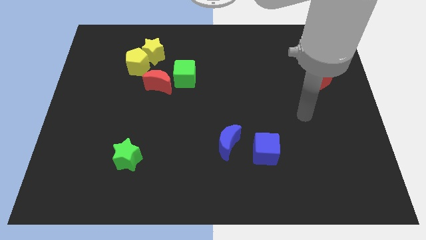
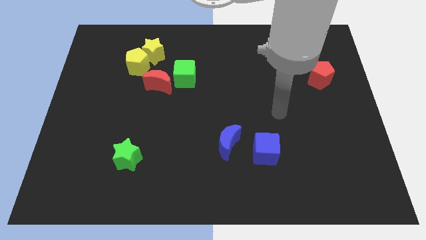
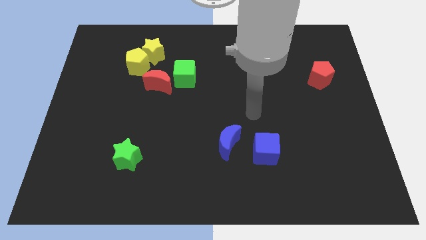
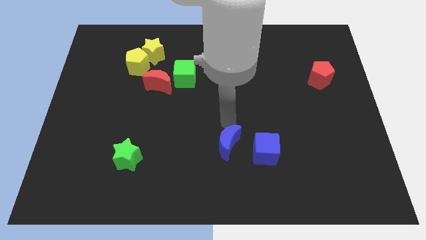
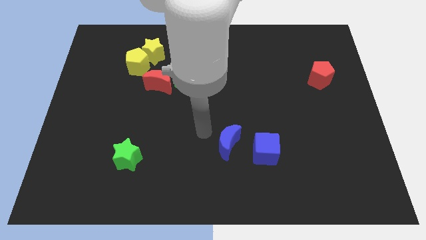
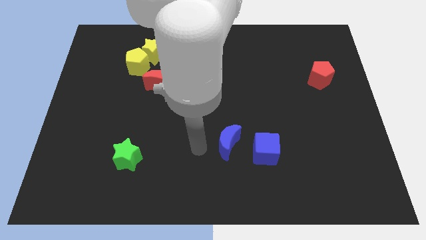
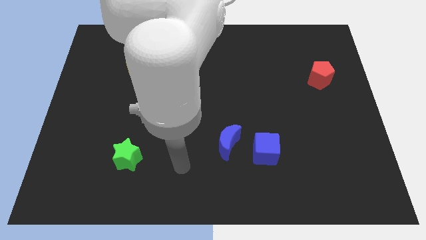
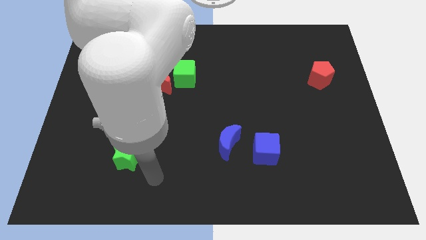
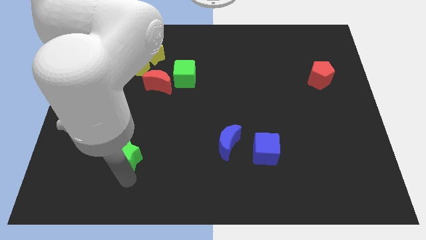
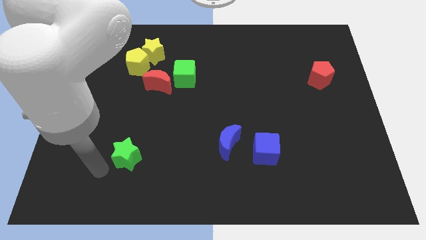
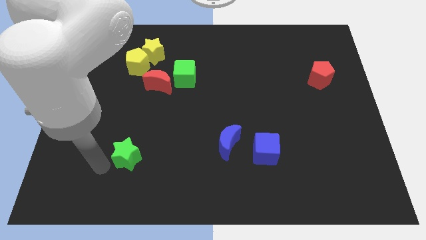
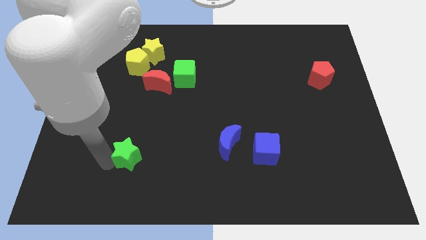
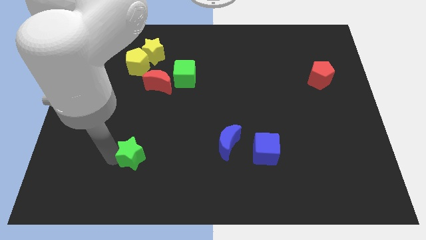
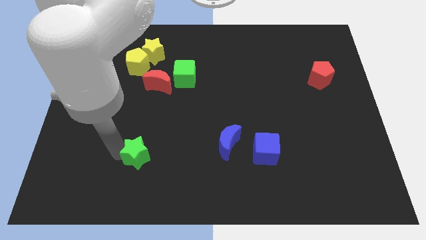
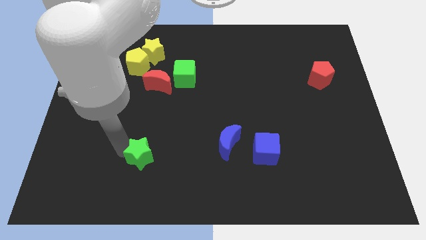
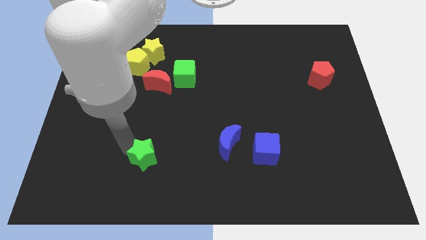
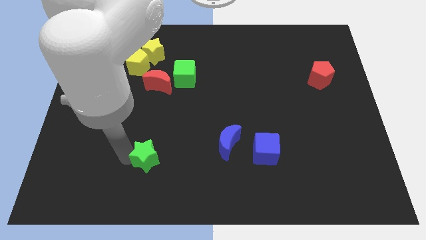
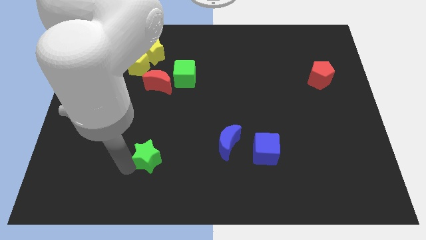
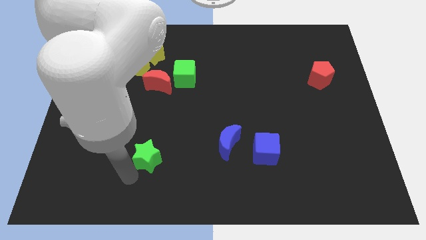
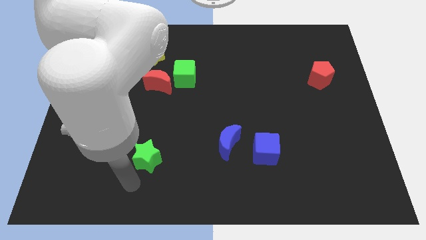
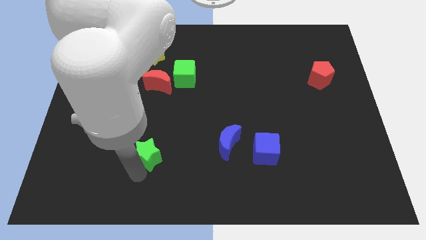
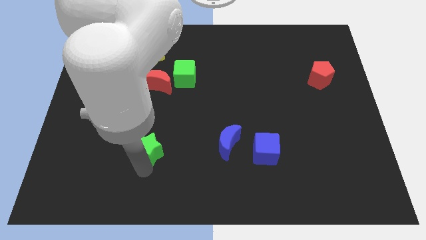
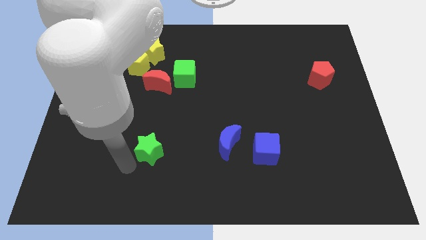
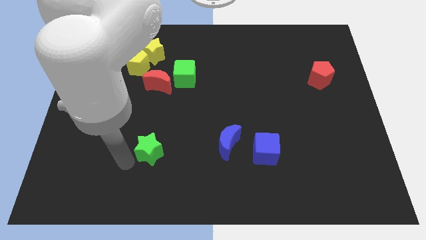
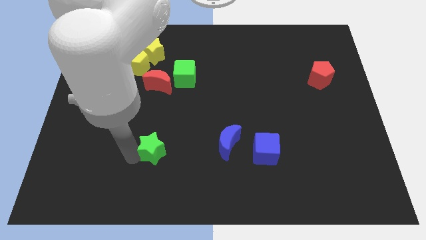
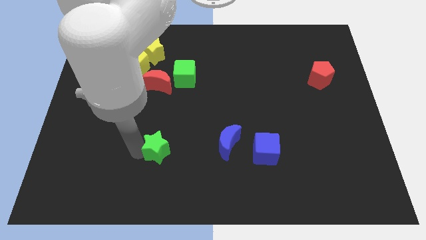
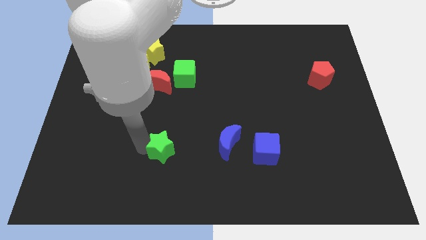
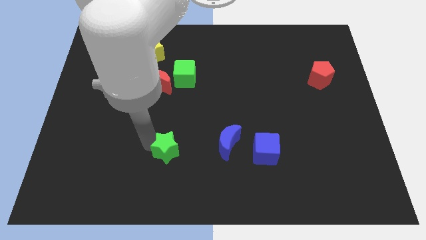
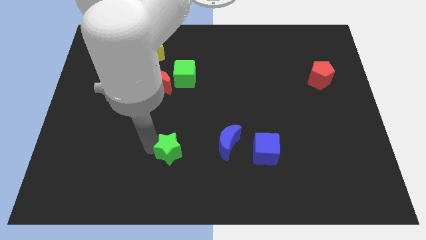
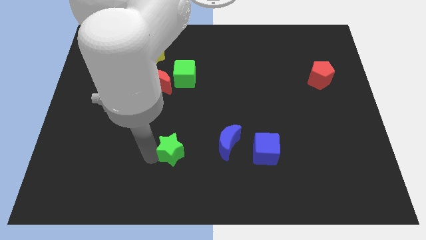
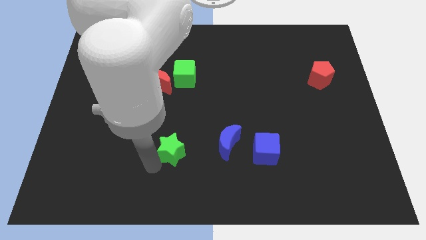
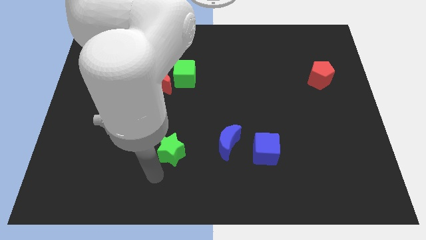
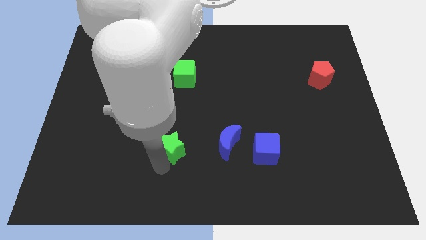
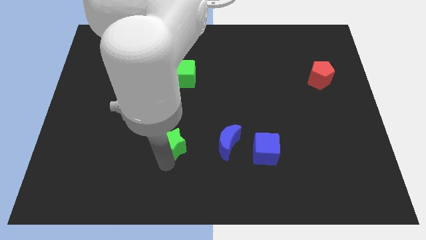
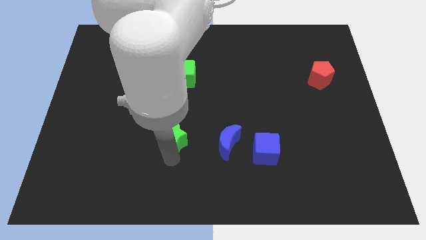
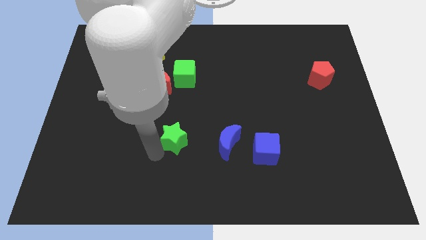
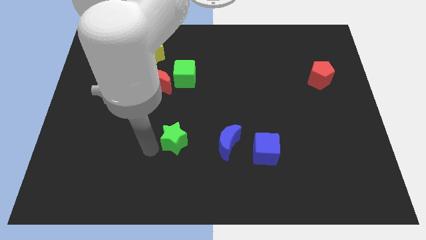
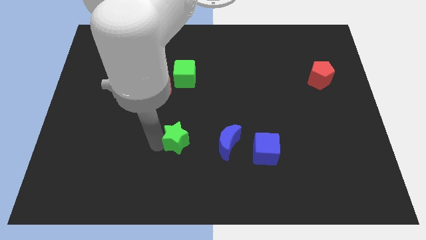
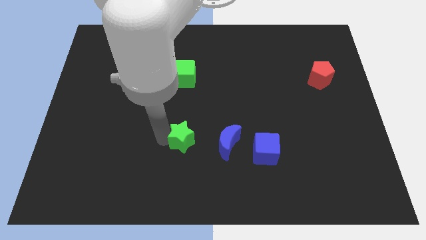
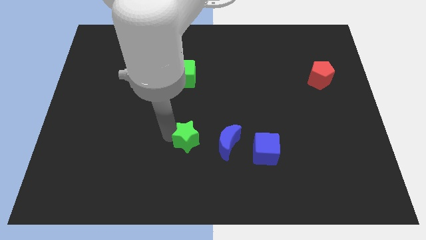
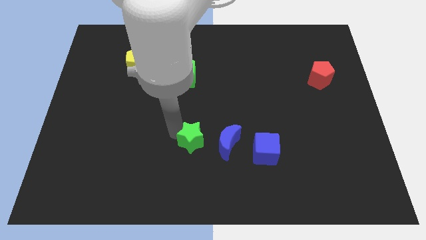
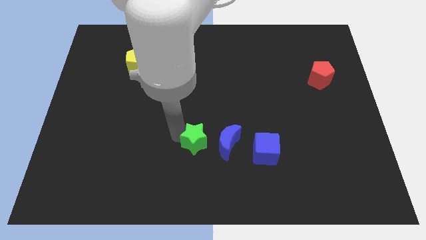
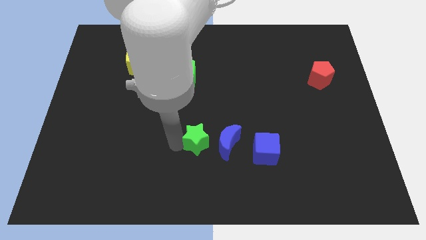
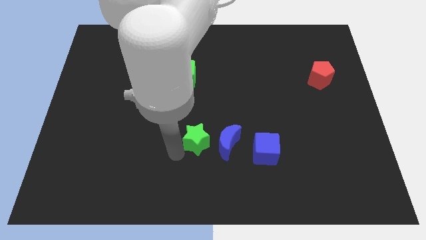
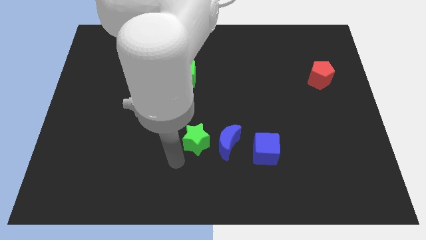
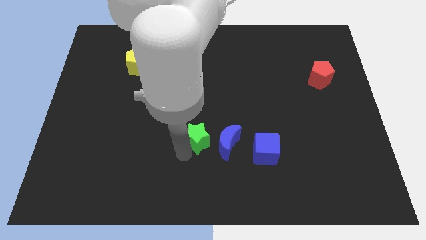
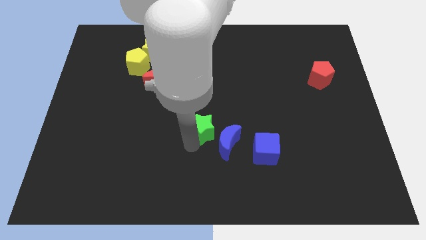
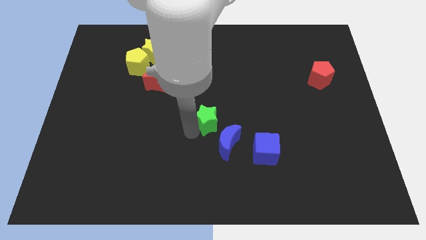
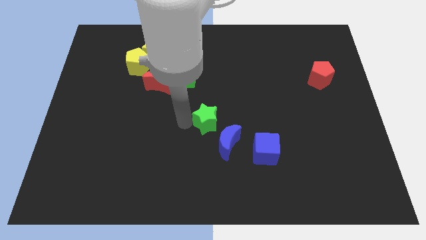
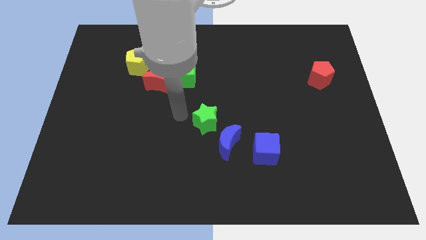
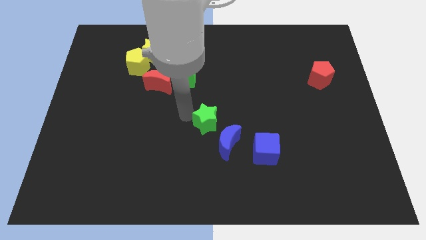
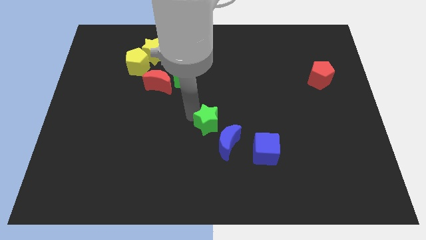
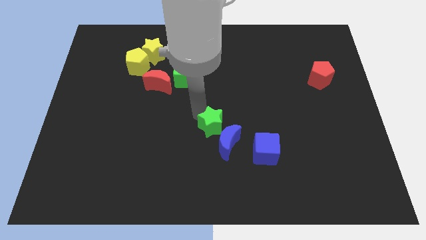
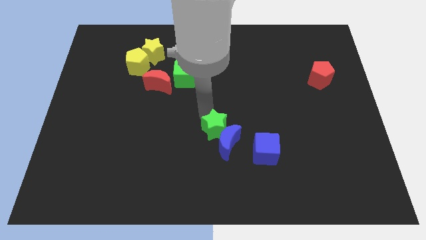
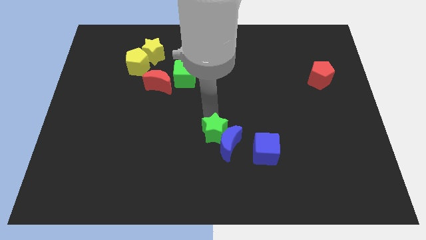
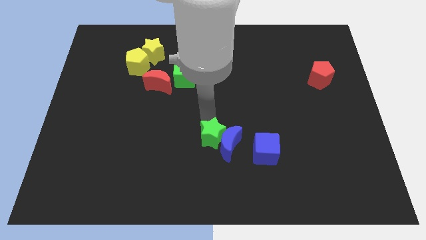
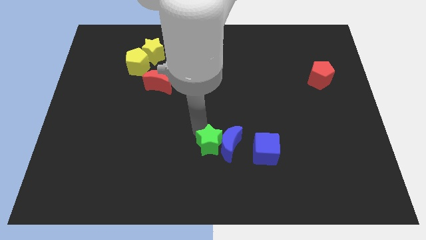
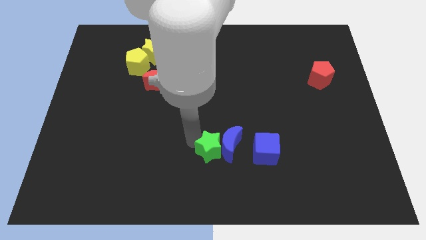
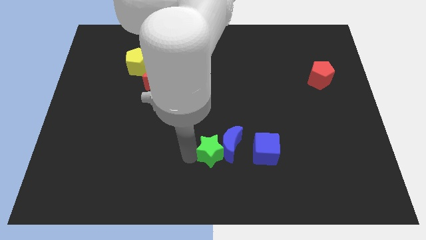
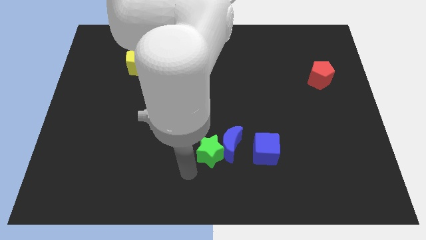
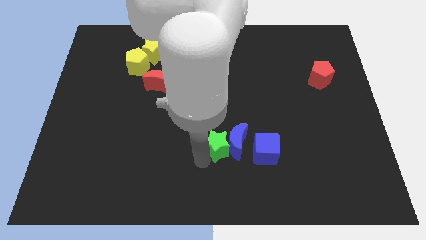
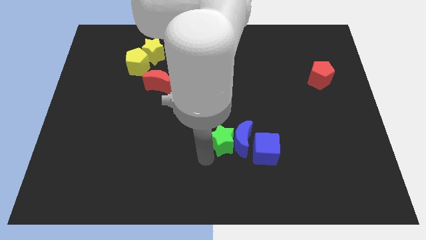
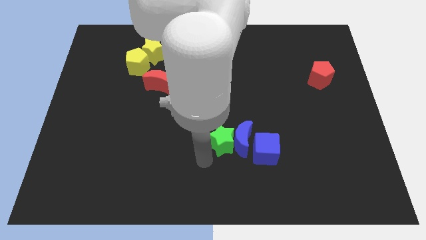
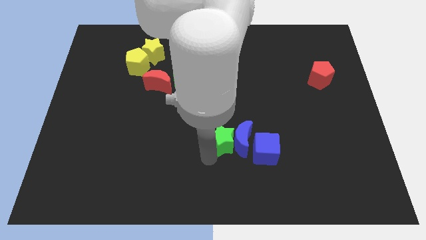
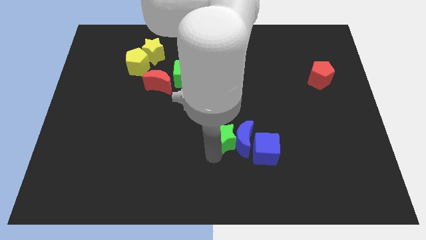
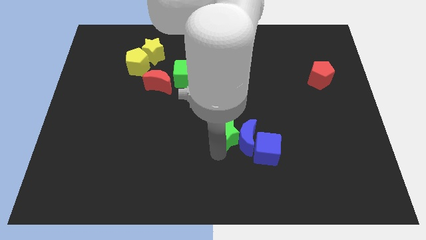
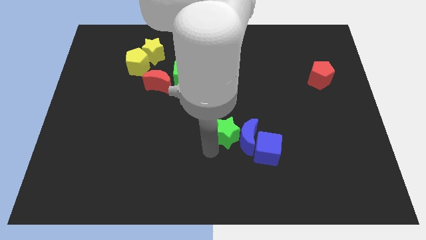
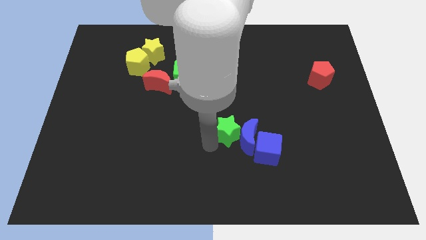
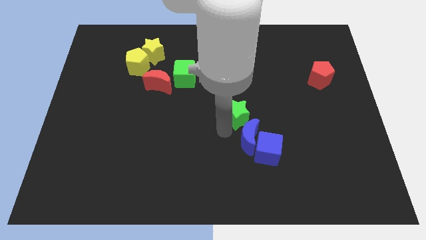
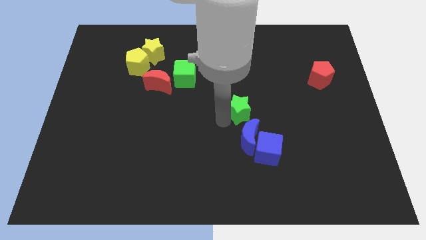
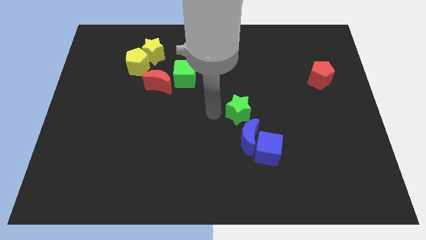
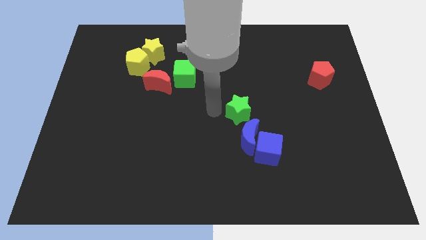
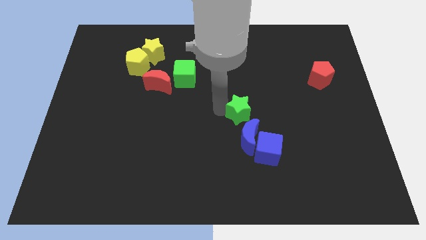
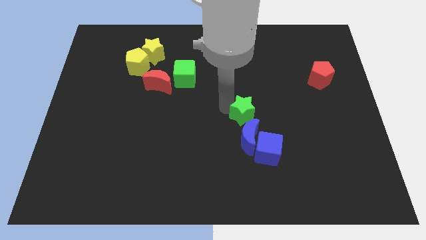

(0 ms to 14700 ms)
slide the green star above the blue cube

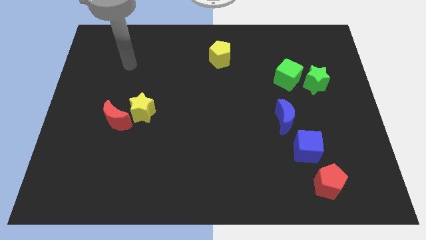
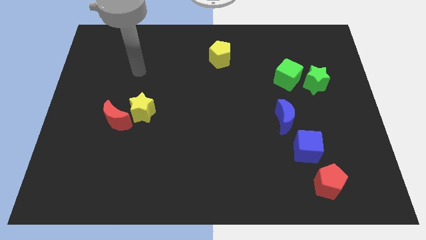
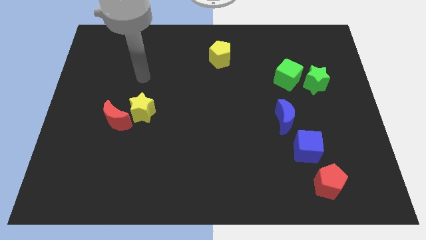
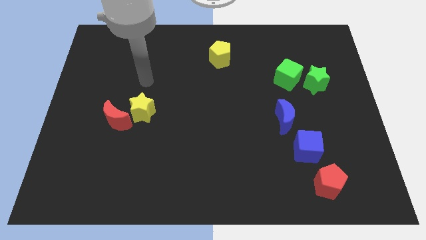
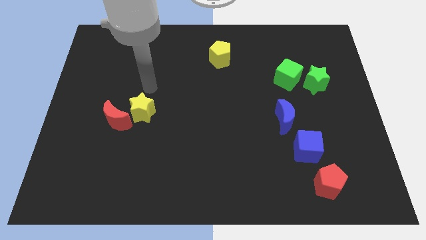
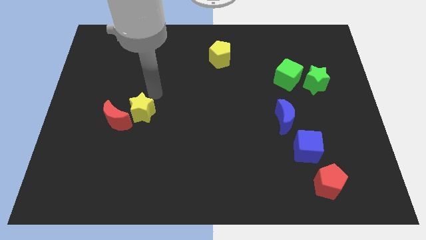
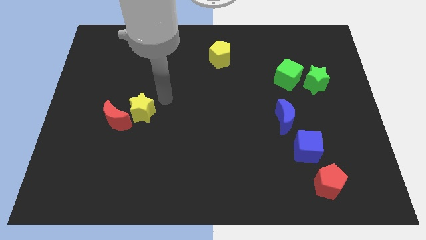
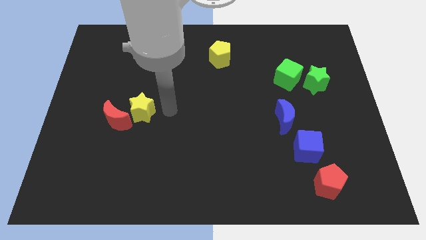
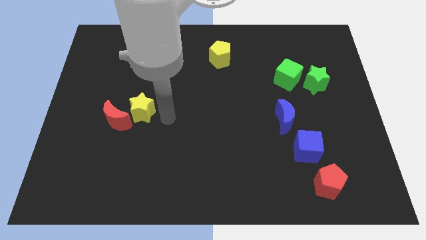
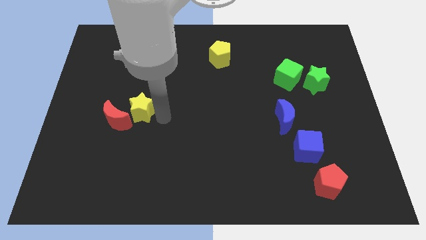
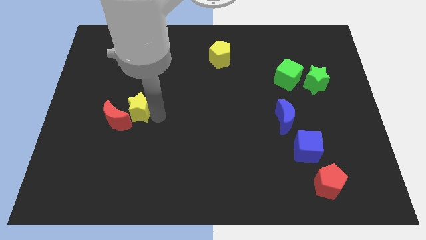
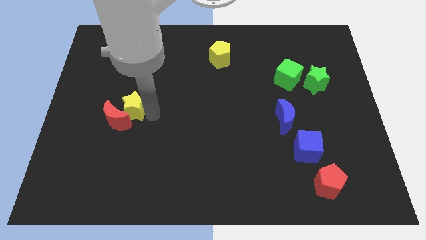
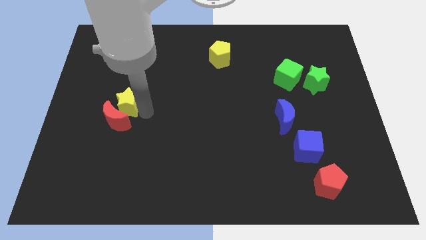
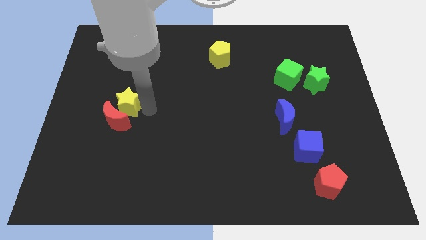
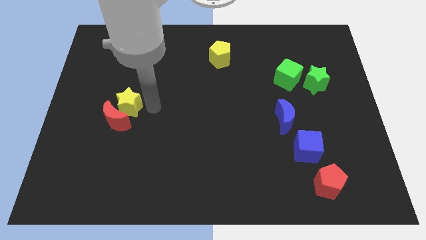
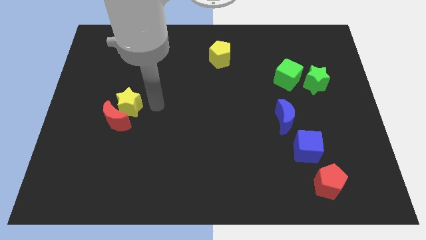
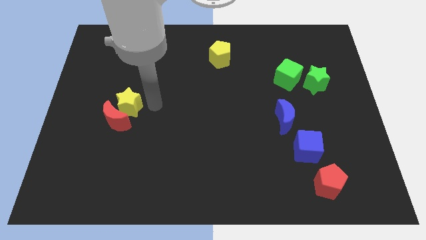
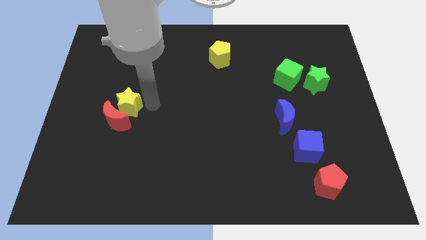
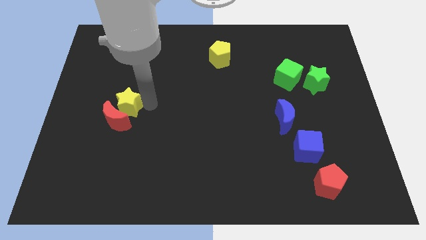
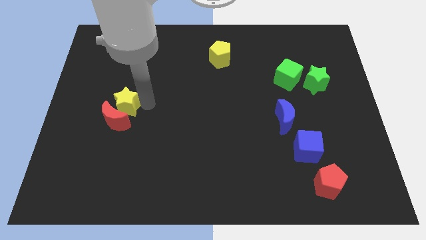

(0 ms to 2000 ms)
put the yellow star to the top left side of the red moon
